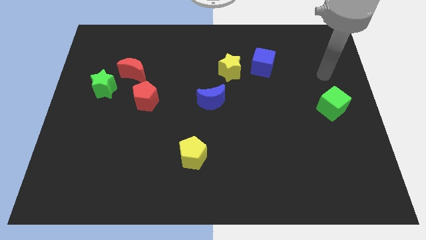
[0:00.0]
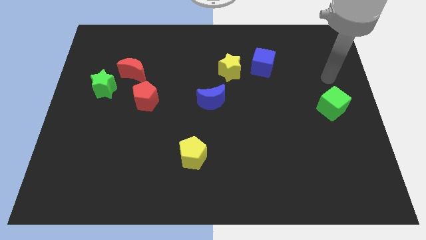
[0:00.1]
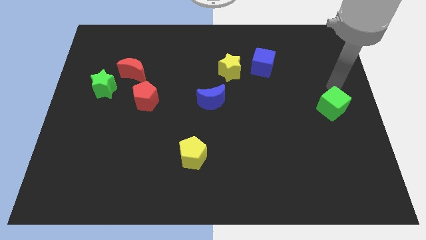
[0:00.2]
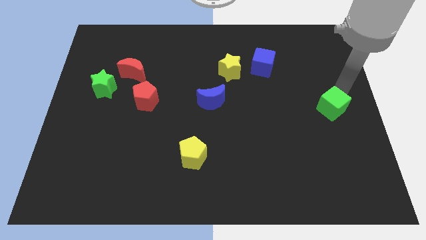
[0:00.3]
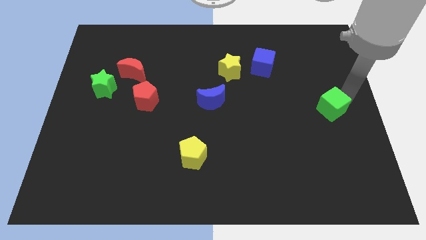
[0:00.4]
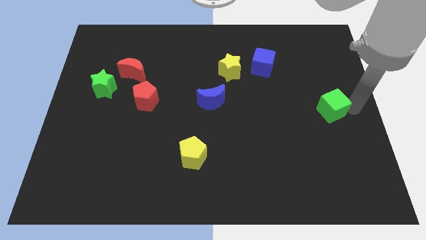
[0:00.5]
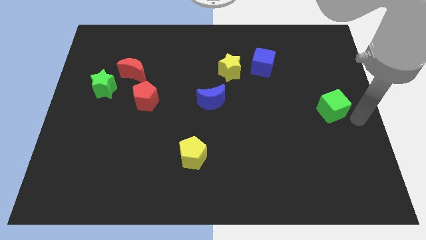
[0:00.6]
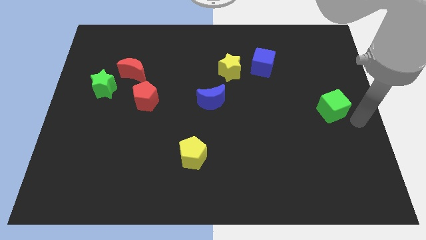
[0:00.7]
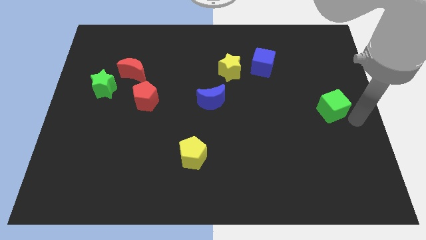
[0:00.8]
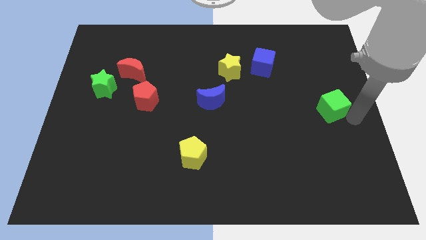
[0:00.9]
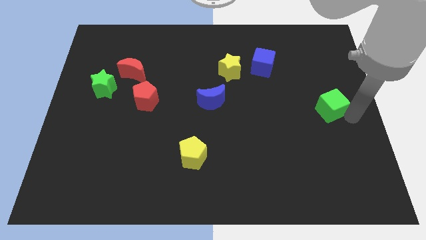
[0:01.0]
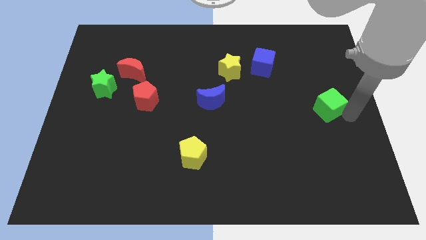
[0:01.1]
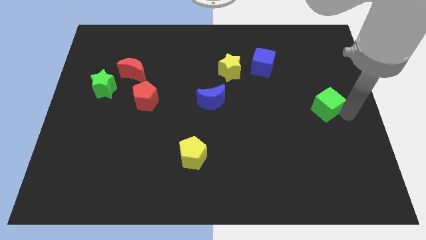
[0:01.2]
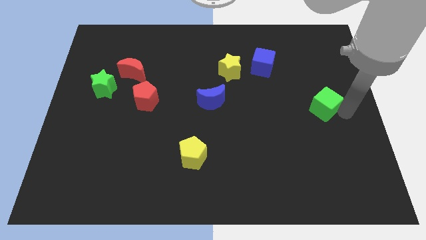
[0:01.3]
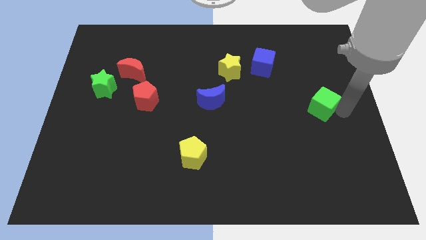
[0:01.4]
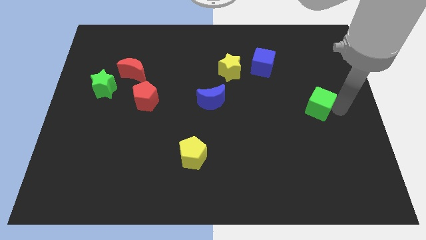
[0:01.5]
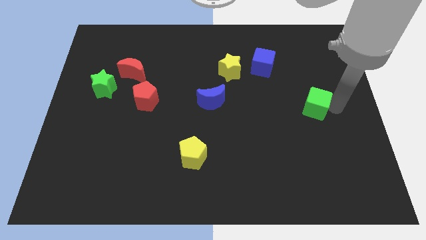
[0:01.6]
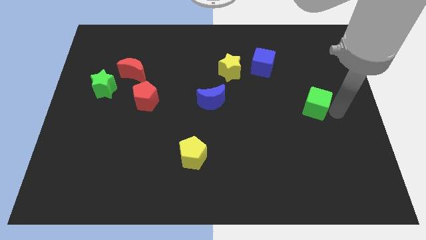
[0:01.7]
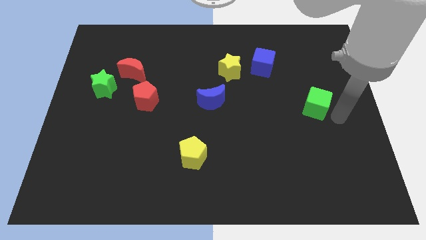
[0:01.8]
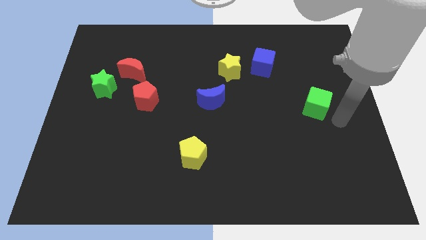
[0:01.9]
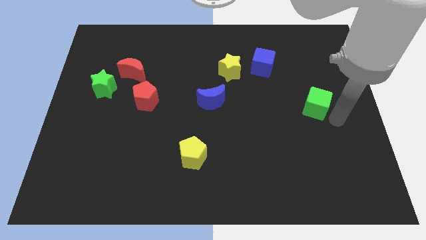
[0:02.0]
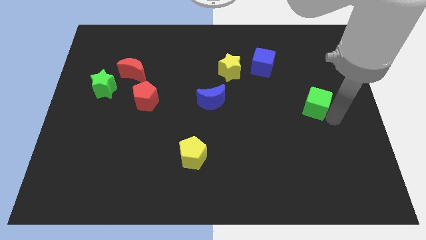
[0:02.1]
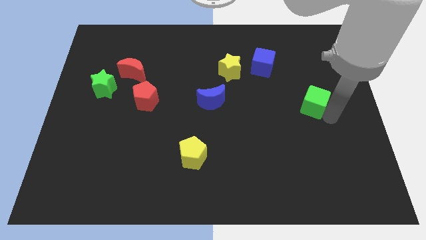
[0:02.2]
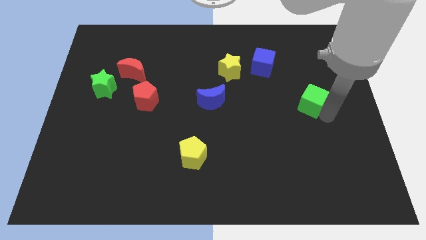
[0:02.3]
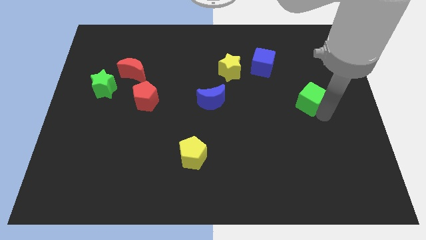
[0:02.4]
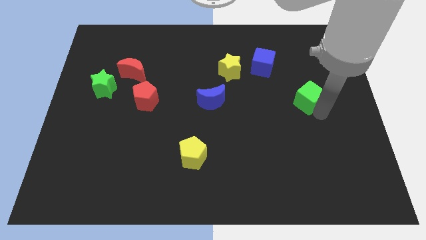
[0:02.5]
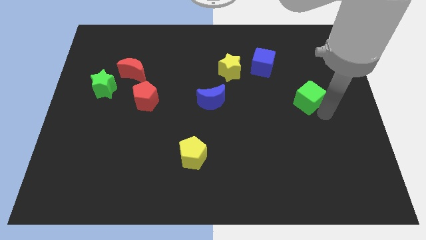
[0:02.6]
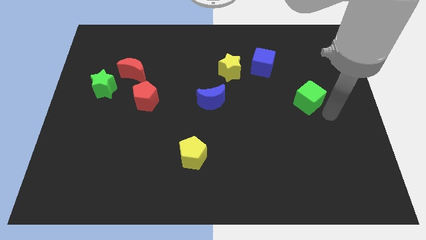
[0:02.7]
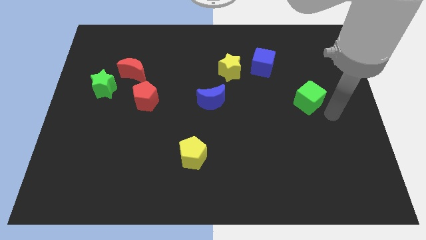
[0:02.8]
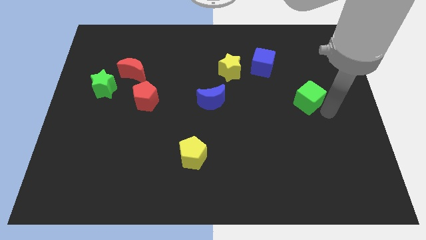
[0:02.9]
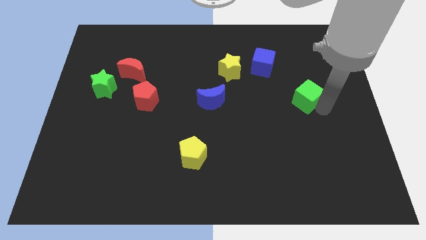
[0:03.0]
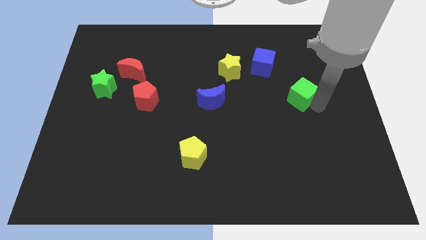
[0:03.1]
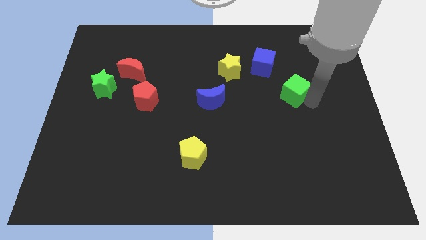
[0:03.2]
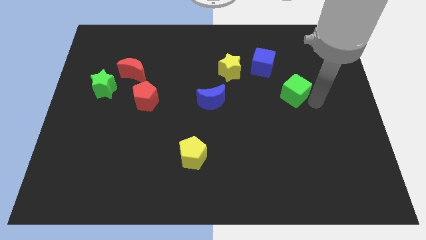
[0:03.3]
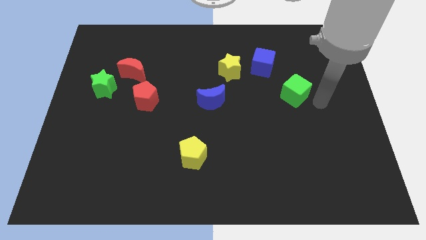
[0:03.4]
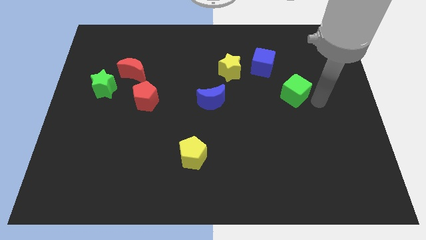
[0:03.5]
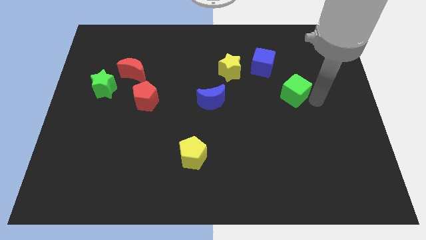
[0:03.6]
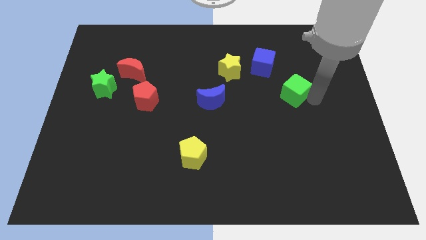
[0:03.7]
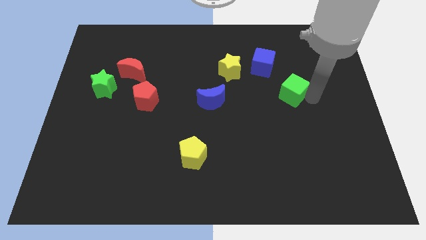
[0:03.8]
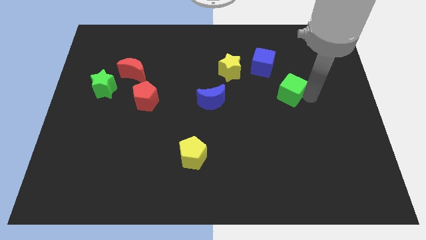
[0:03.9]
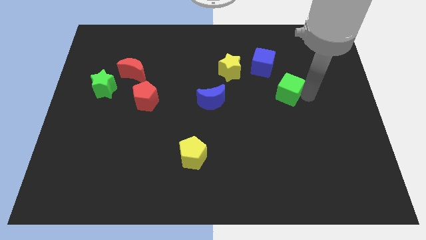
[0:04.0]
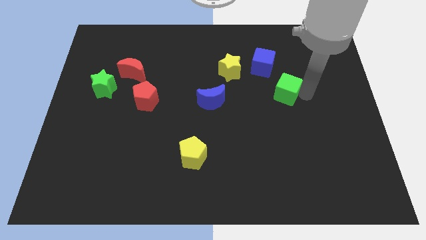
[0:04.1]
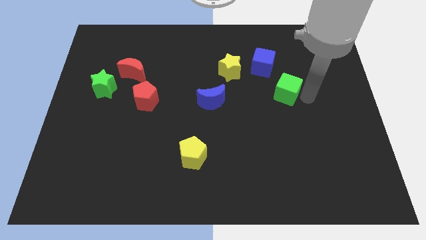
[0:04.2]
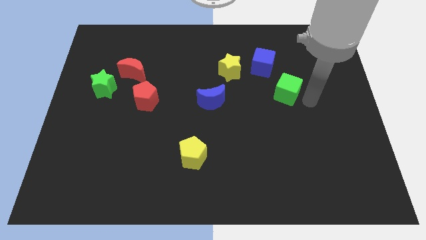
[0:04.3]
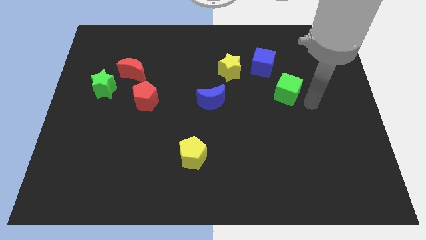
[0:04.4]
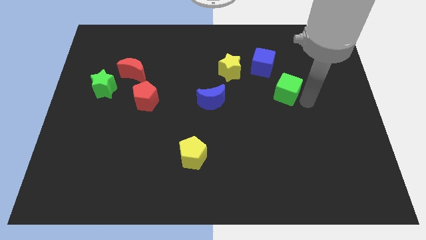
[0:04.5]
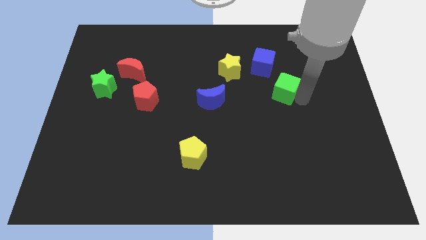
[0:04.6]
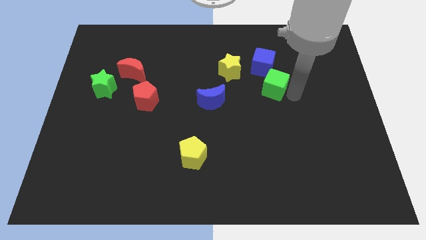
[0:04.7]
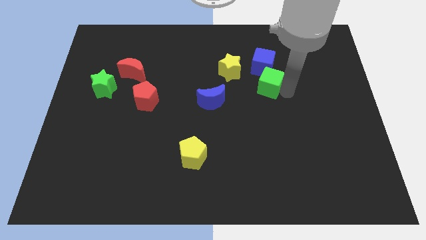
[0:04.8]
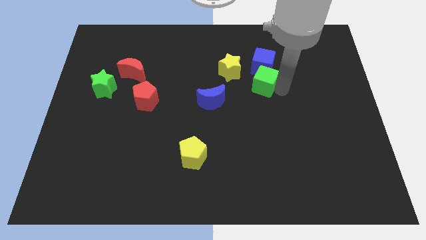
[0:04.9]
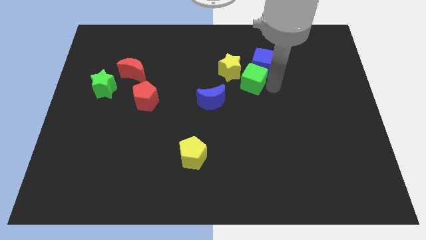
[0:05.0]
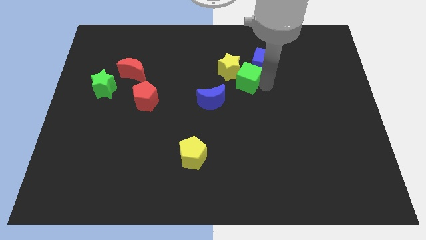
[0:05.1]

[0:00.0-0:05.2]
push the green cube to the yellow star

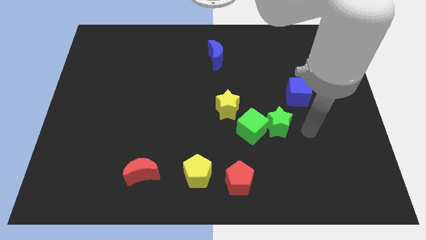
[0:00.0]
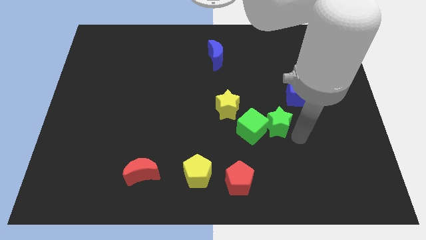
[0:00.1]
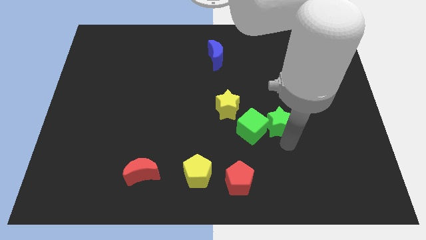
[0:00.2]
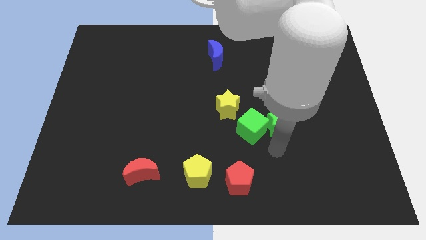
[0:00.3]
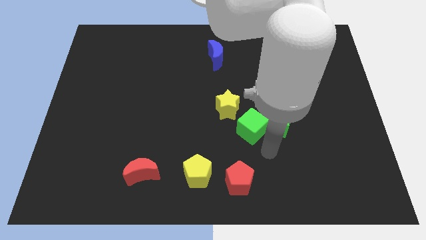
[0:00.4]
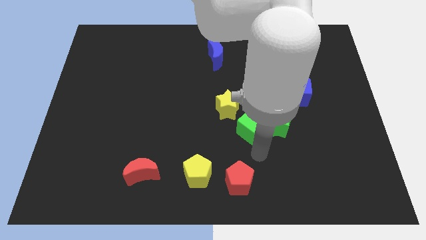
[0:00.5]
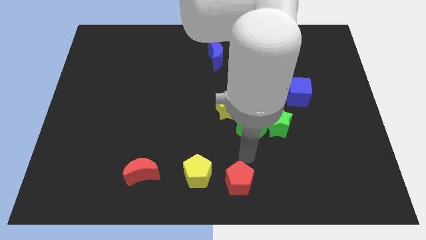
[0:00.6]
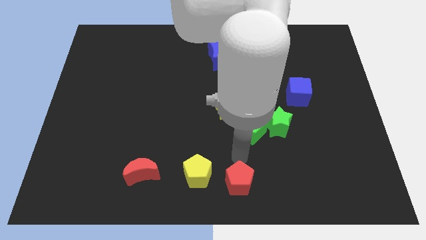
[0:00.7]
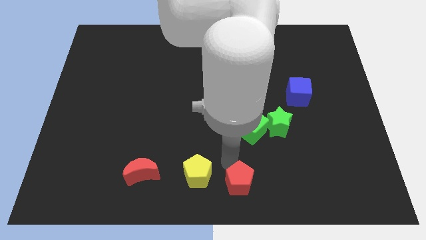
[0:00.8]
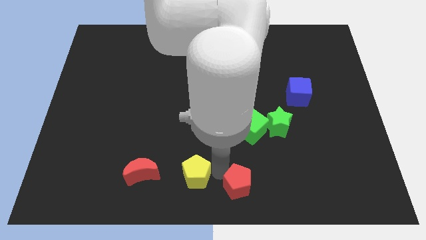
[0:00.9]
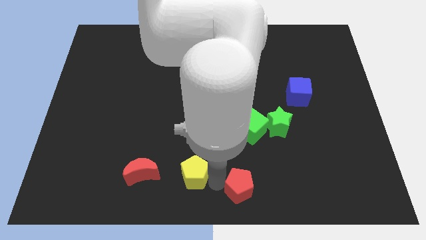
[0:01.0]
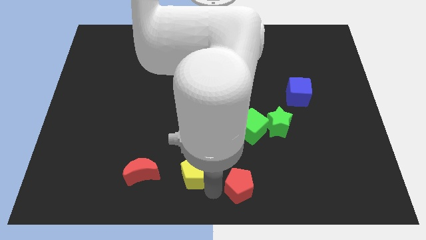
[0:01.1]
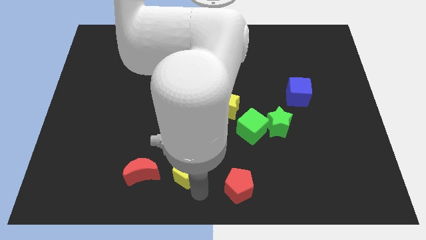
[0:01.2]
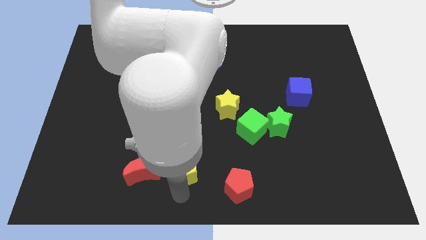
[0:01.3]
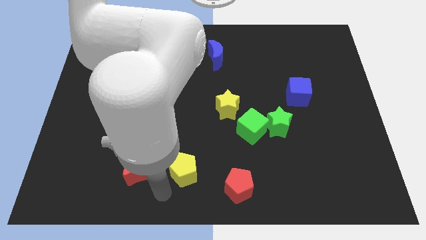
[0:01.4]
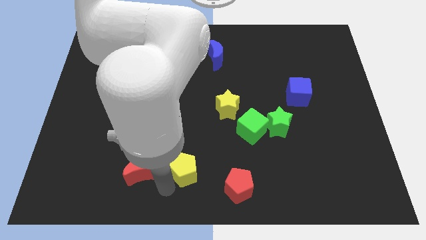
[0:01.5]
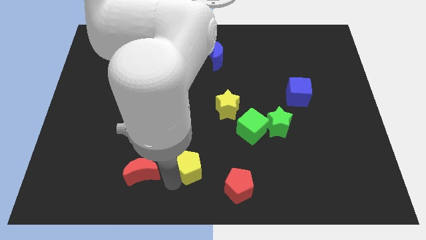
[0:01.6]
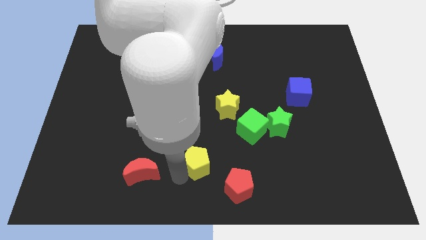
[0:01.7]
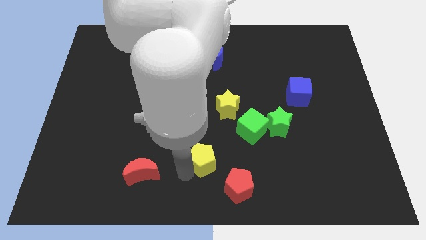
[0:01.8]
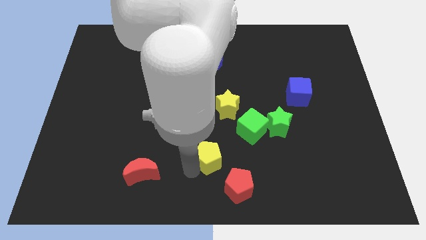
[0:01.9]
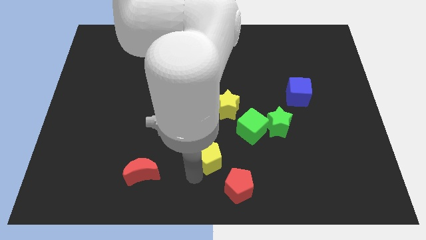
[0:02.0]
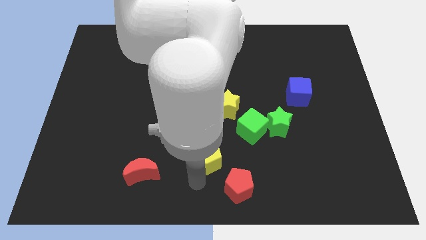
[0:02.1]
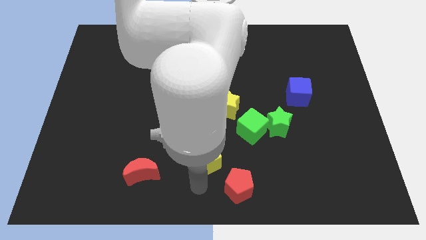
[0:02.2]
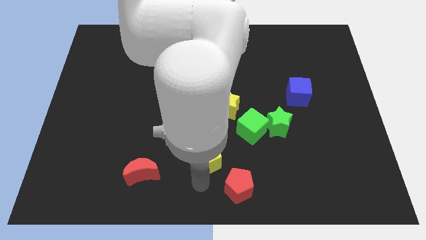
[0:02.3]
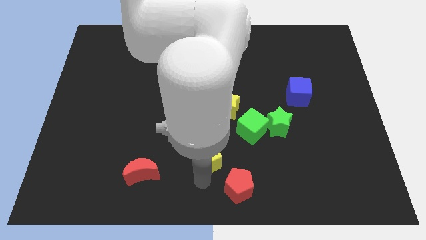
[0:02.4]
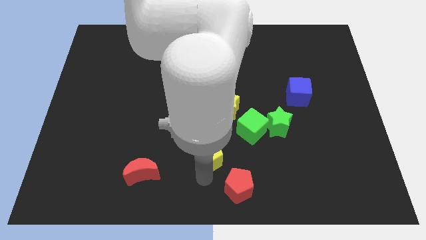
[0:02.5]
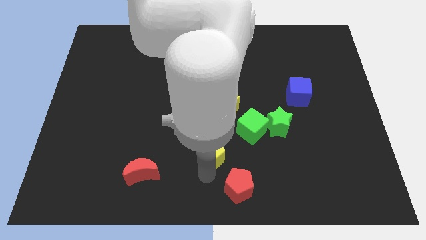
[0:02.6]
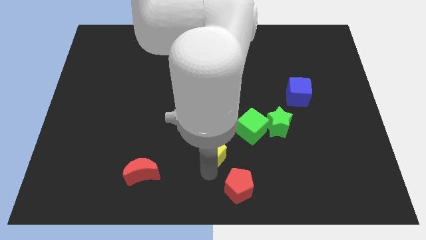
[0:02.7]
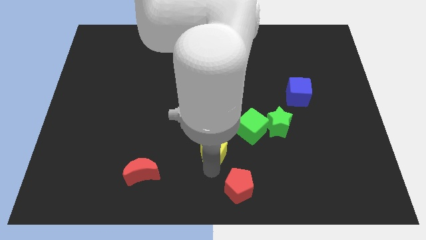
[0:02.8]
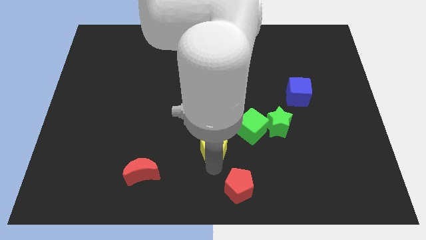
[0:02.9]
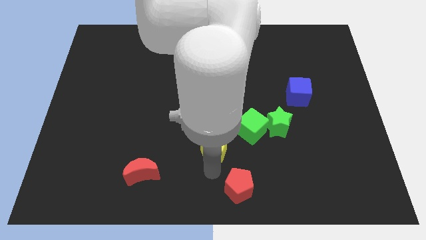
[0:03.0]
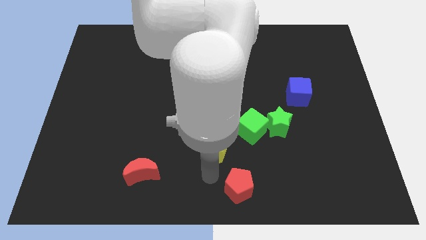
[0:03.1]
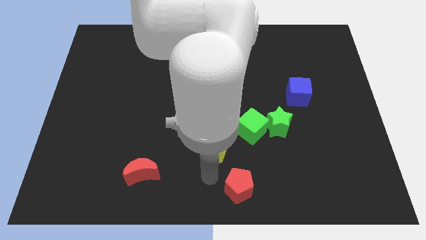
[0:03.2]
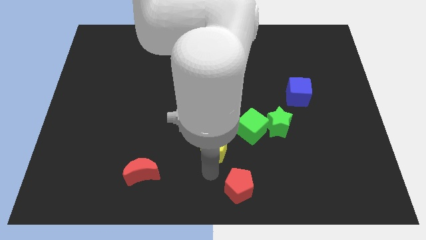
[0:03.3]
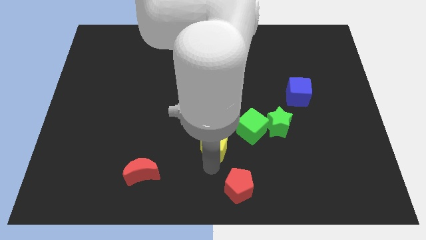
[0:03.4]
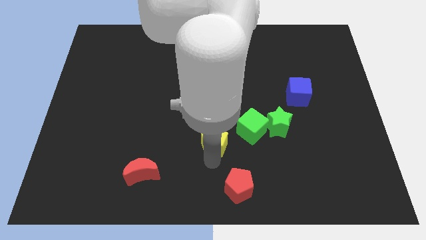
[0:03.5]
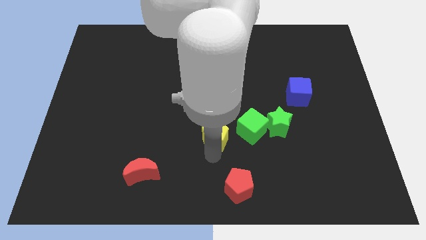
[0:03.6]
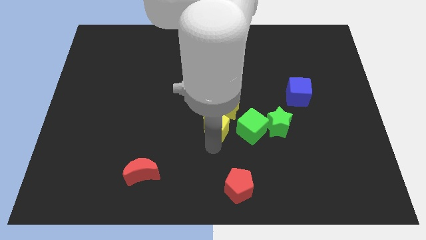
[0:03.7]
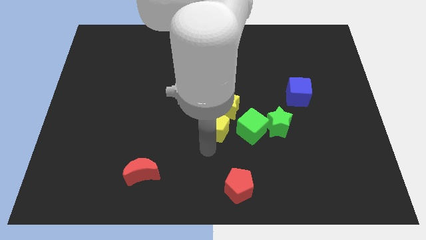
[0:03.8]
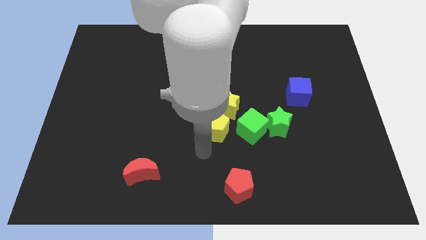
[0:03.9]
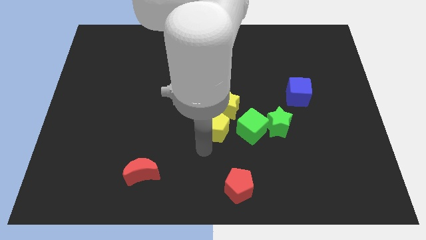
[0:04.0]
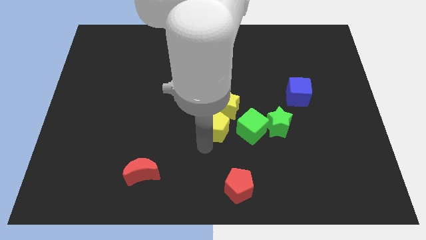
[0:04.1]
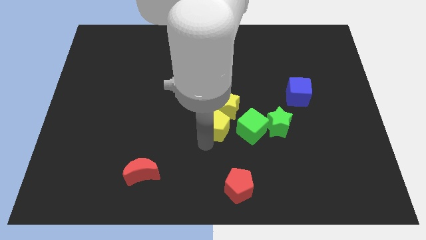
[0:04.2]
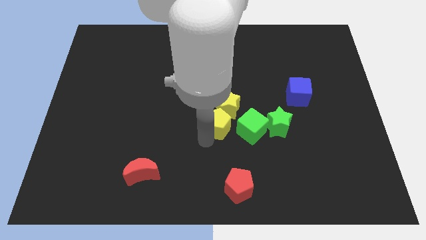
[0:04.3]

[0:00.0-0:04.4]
push the yellow pentagon next to the yellow star
